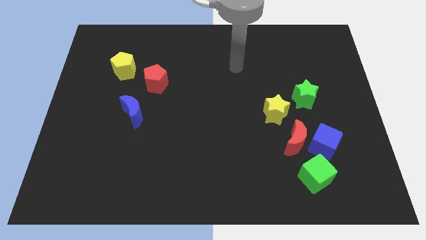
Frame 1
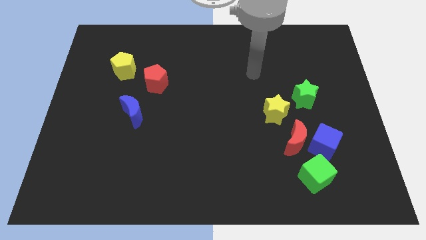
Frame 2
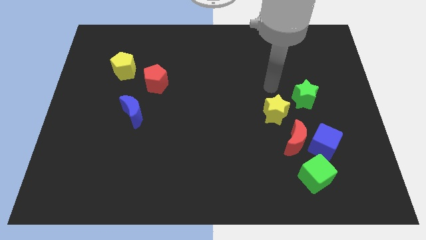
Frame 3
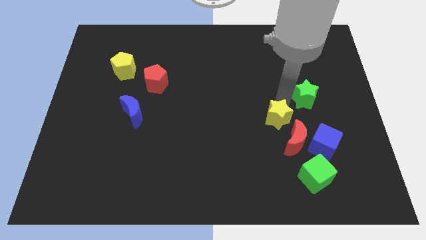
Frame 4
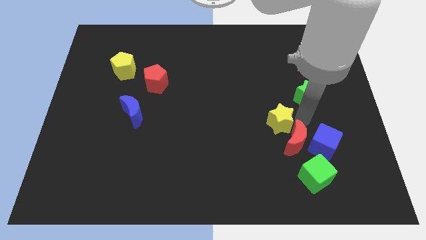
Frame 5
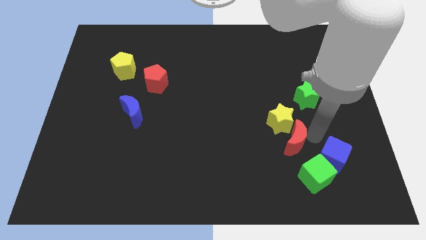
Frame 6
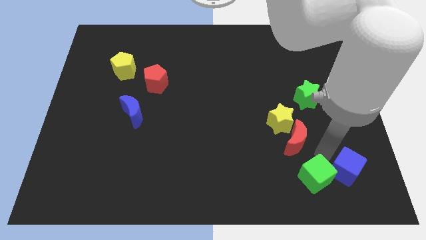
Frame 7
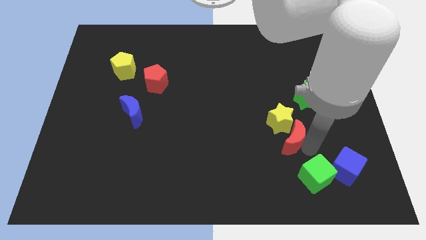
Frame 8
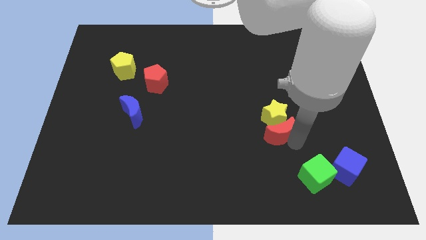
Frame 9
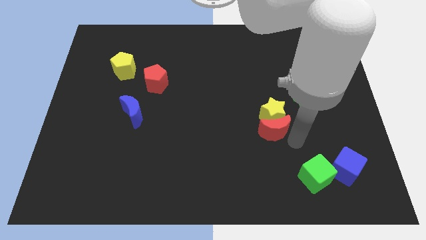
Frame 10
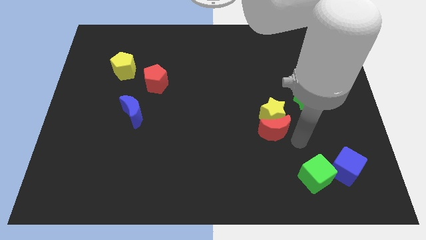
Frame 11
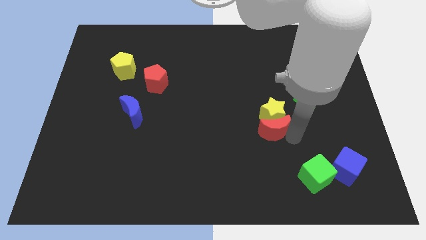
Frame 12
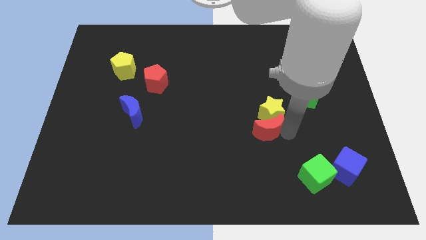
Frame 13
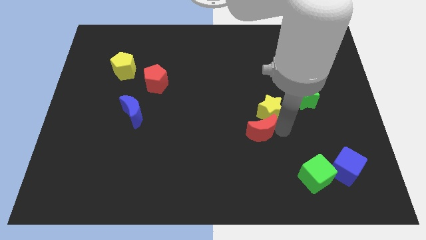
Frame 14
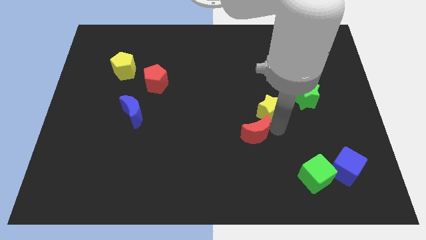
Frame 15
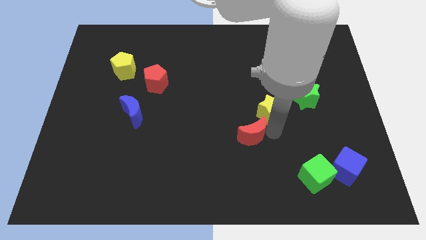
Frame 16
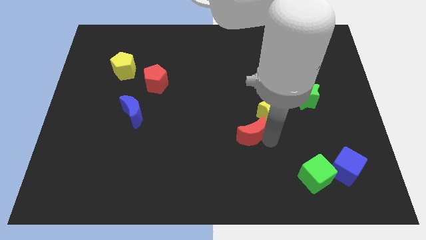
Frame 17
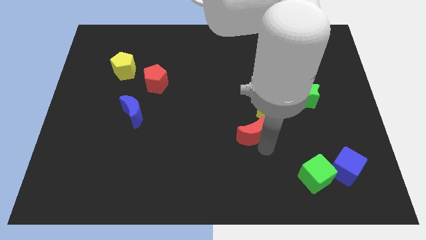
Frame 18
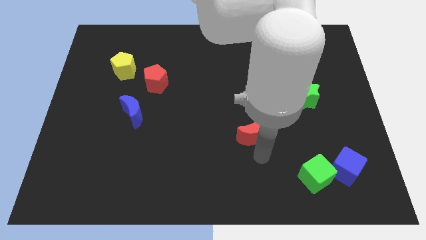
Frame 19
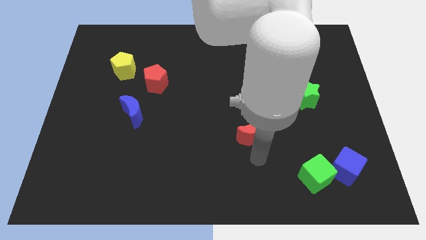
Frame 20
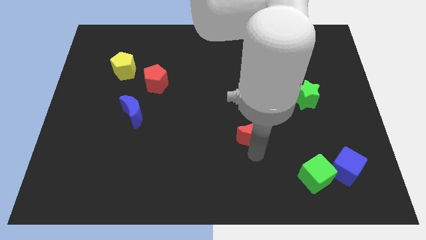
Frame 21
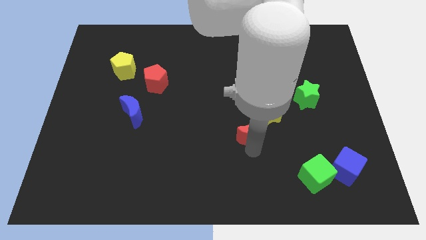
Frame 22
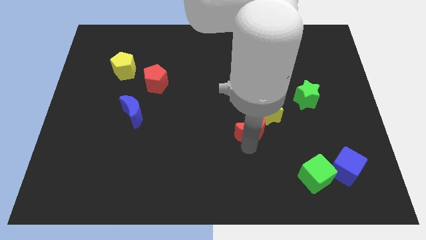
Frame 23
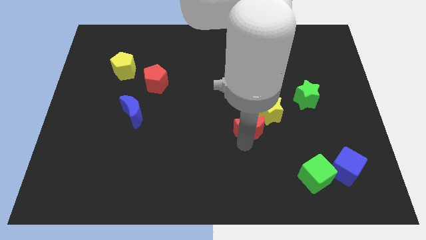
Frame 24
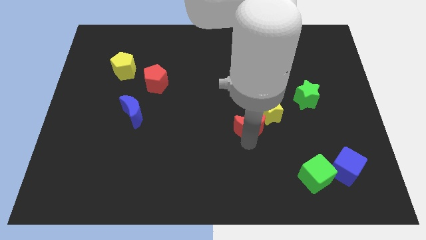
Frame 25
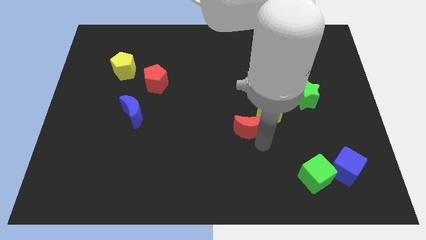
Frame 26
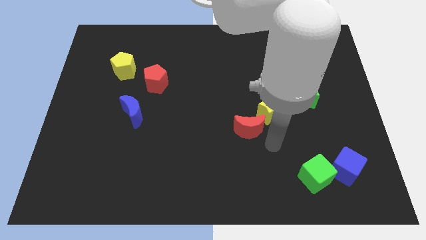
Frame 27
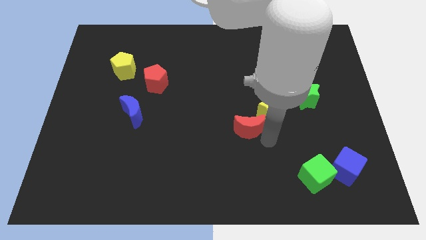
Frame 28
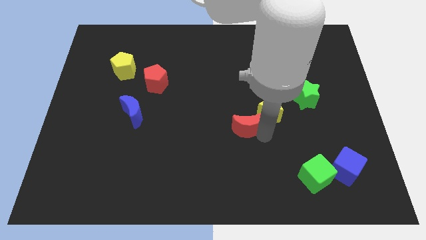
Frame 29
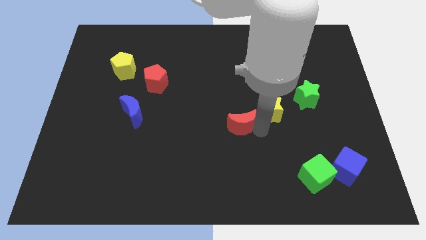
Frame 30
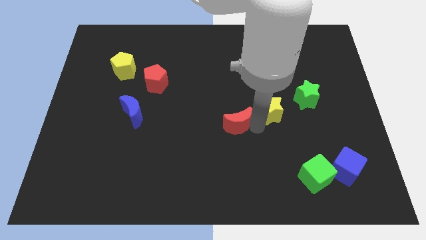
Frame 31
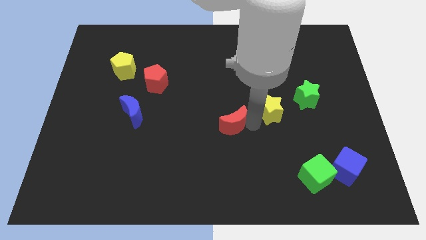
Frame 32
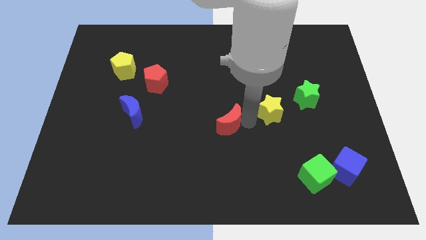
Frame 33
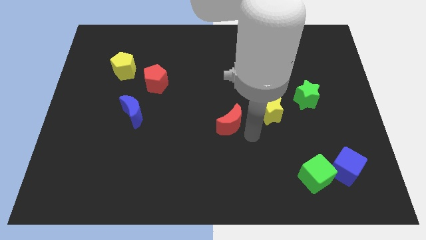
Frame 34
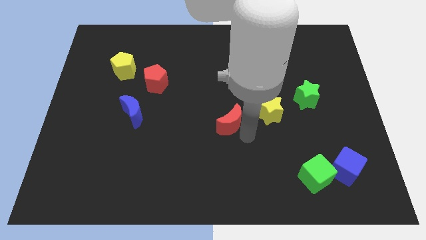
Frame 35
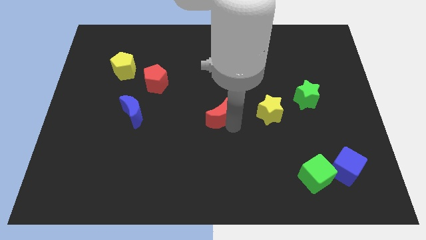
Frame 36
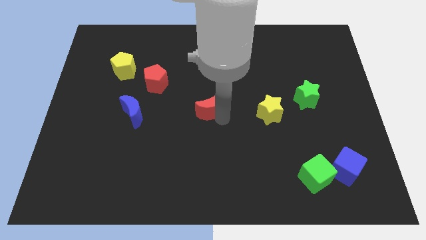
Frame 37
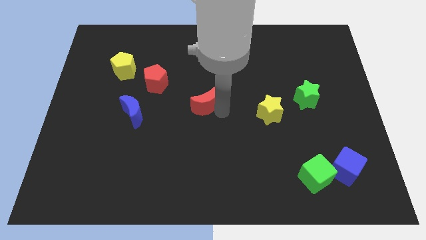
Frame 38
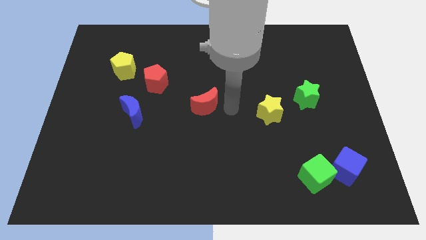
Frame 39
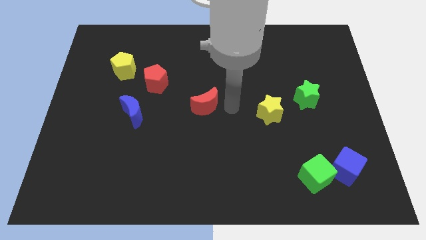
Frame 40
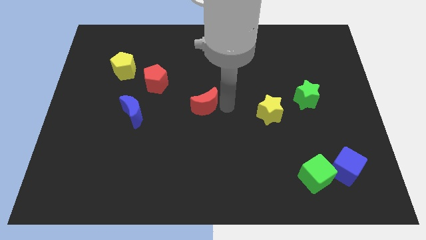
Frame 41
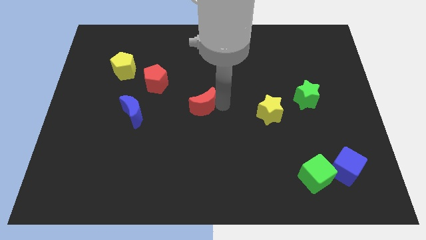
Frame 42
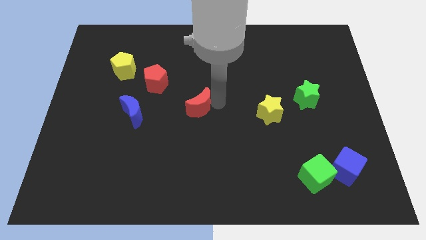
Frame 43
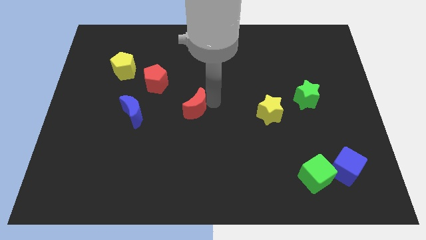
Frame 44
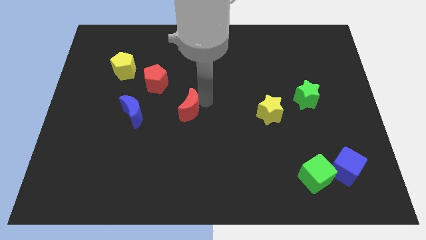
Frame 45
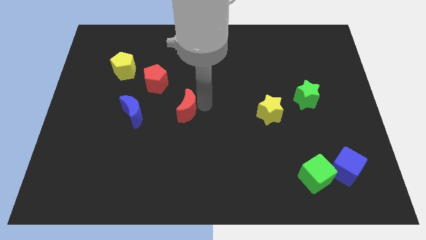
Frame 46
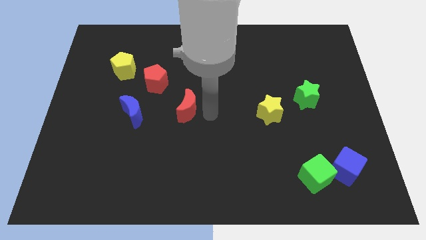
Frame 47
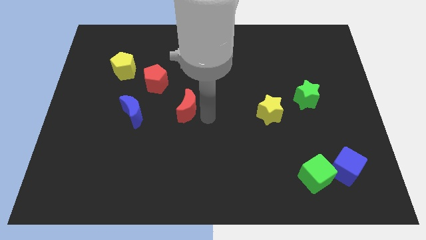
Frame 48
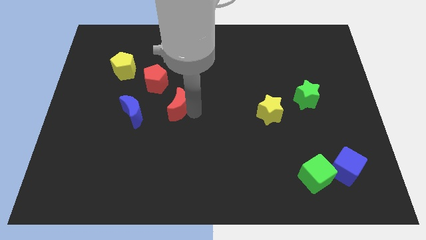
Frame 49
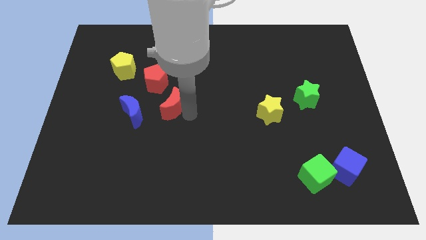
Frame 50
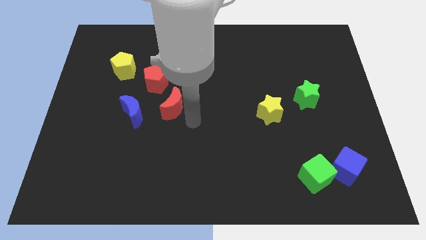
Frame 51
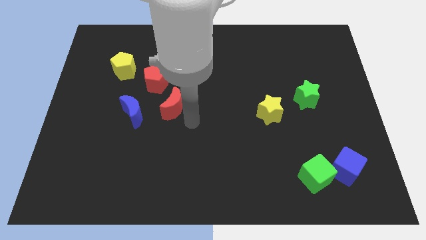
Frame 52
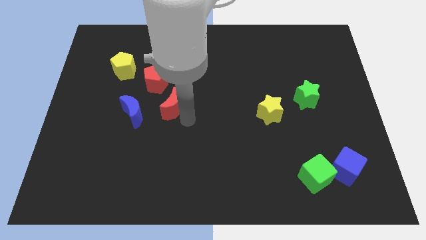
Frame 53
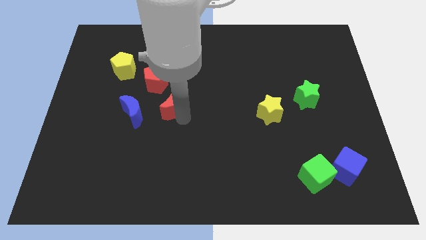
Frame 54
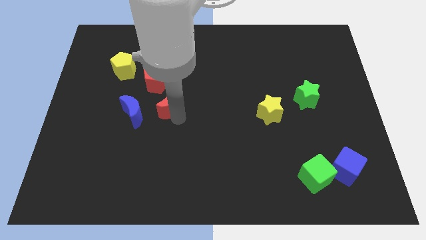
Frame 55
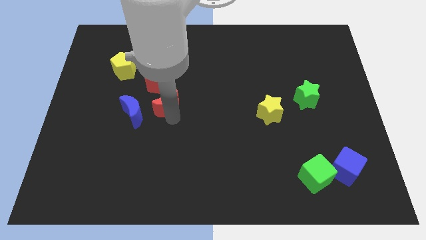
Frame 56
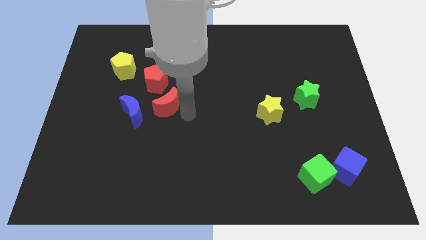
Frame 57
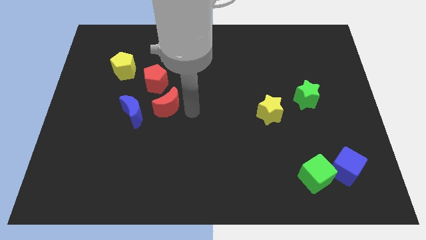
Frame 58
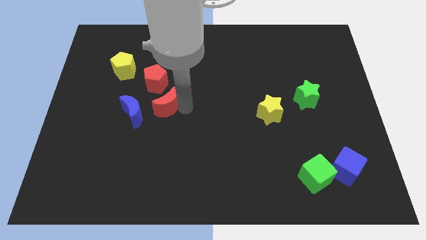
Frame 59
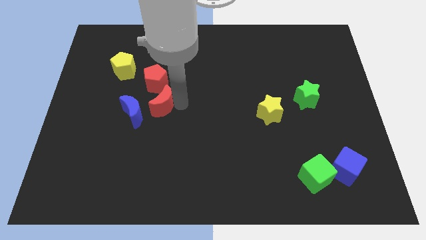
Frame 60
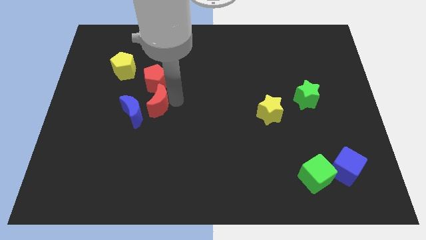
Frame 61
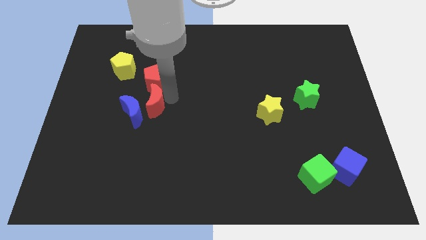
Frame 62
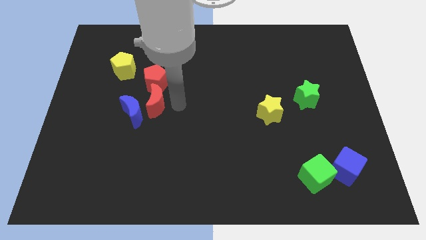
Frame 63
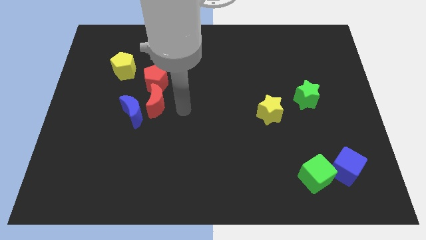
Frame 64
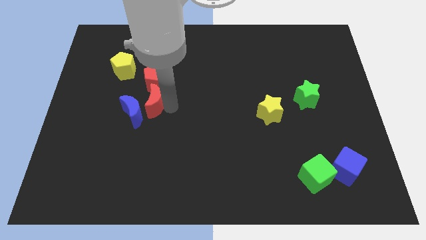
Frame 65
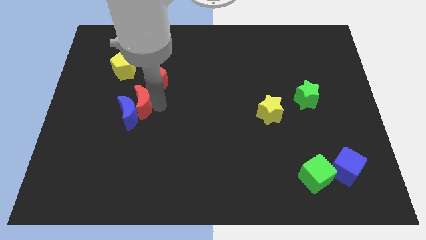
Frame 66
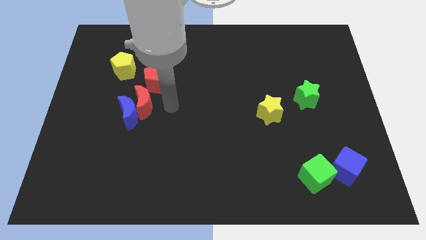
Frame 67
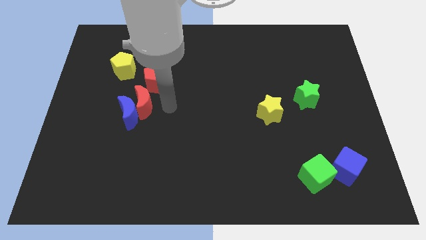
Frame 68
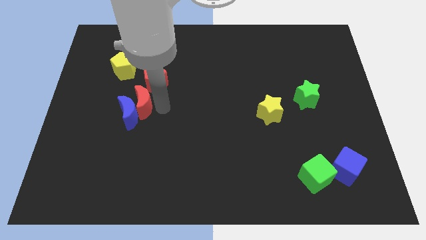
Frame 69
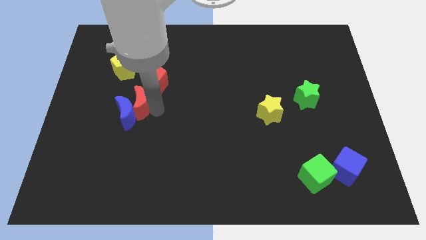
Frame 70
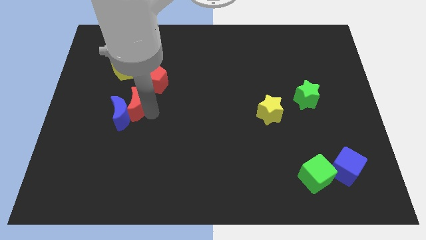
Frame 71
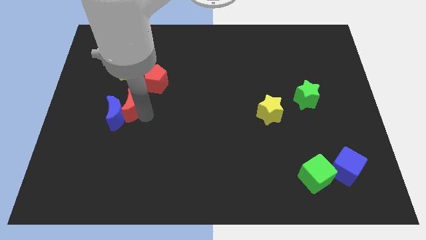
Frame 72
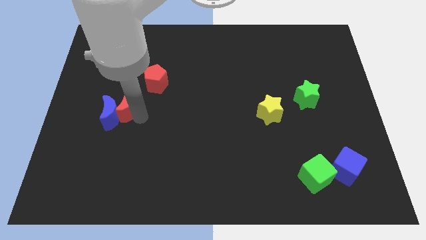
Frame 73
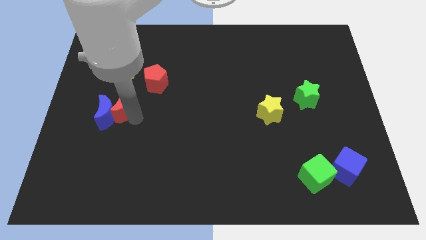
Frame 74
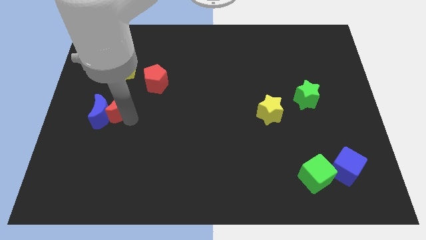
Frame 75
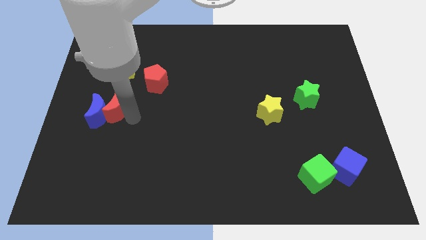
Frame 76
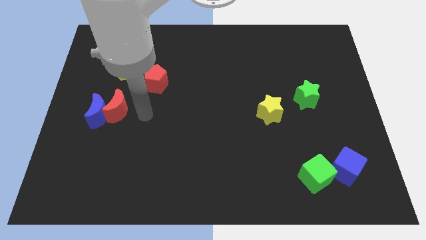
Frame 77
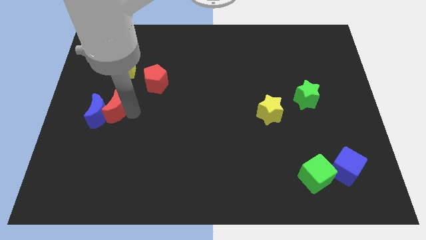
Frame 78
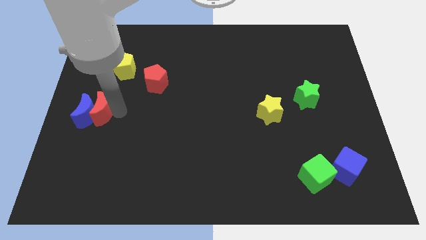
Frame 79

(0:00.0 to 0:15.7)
push the red moon to the left side of the board
